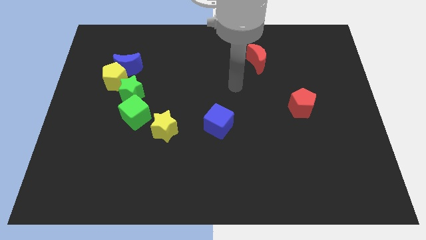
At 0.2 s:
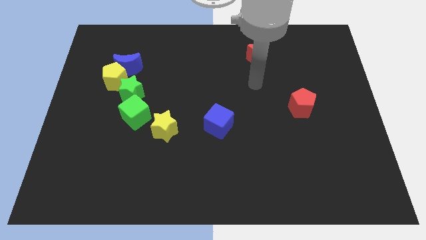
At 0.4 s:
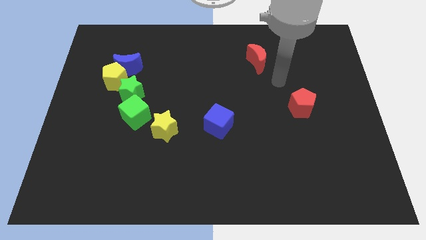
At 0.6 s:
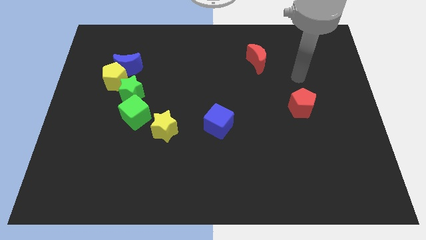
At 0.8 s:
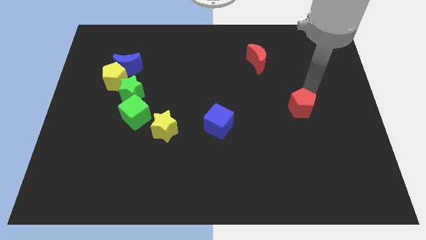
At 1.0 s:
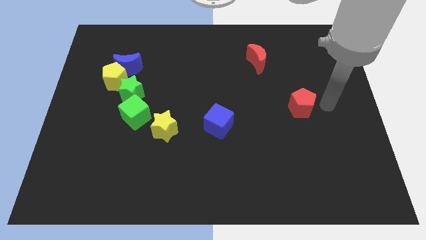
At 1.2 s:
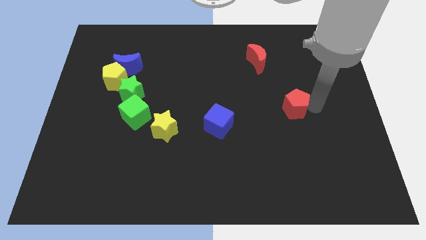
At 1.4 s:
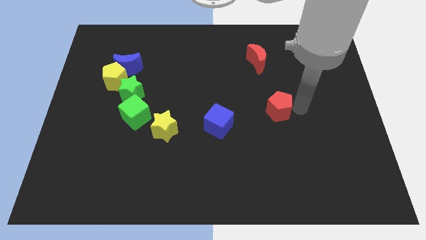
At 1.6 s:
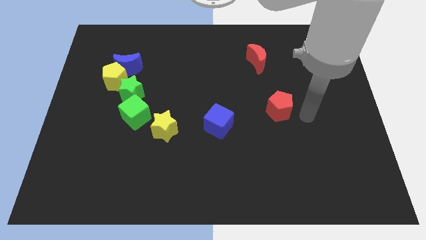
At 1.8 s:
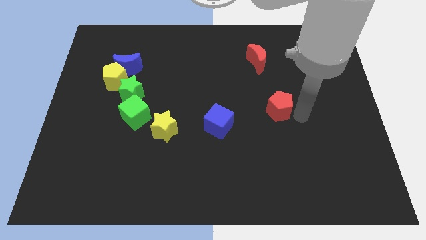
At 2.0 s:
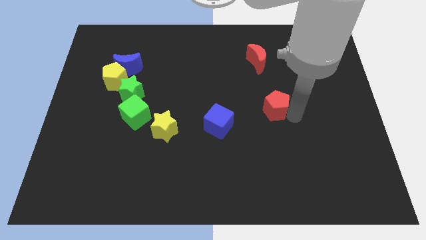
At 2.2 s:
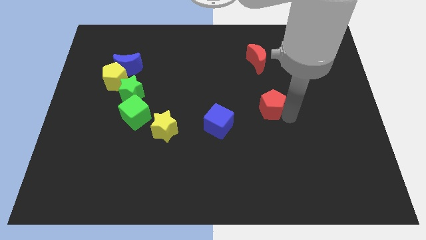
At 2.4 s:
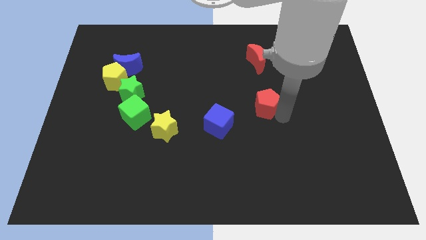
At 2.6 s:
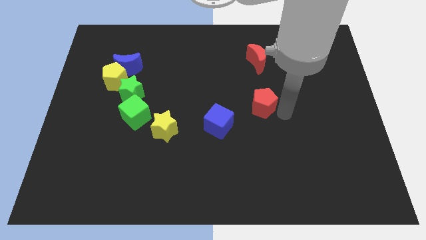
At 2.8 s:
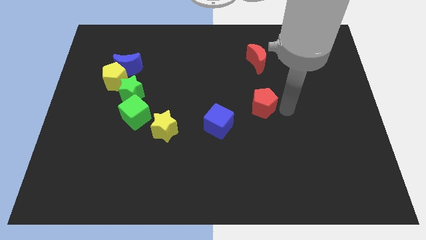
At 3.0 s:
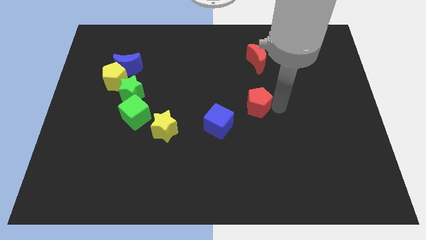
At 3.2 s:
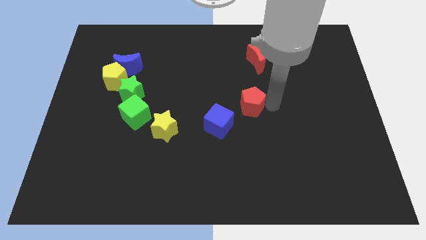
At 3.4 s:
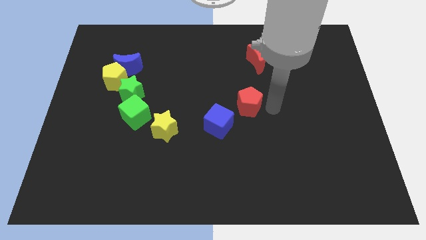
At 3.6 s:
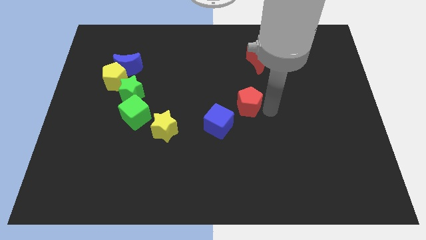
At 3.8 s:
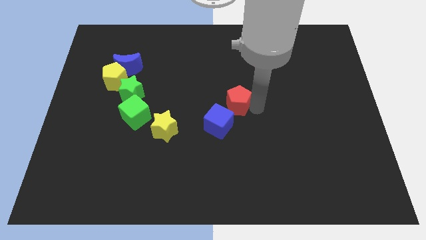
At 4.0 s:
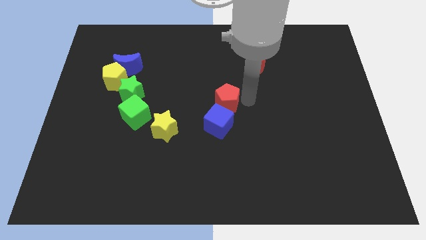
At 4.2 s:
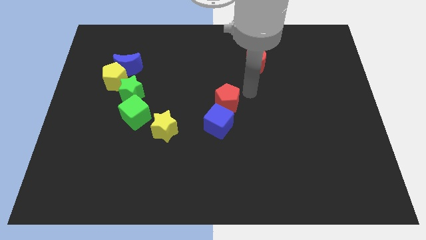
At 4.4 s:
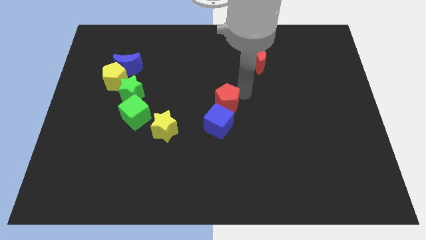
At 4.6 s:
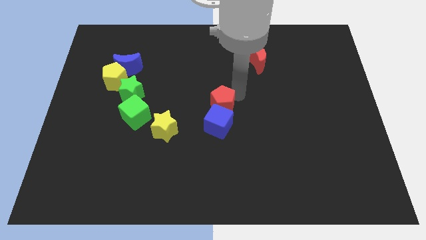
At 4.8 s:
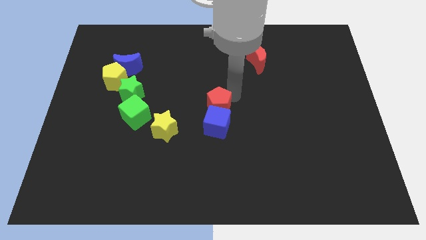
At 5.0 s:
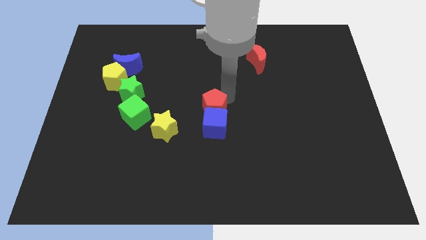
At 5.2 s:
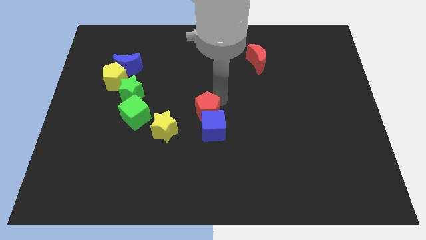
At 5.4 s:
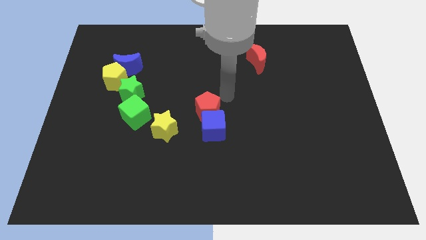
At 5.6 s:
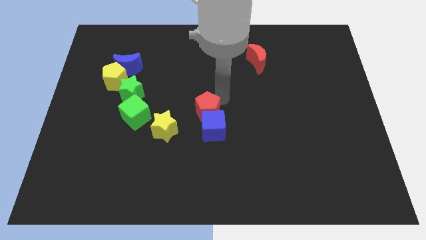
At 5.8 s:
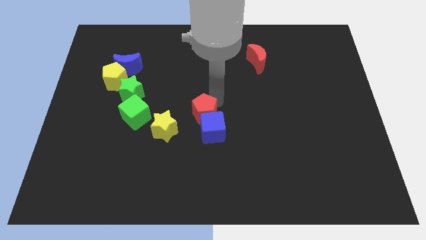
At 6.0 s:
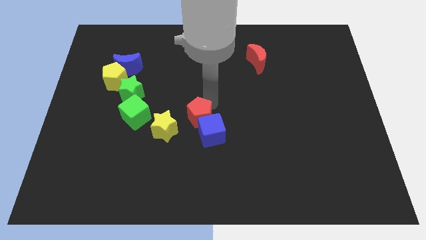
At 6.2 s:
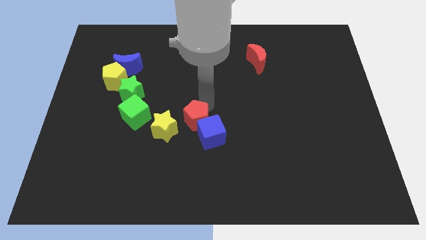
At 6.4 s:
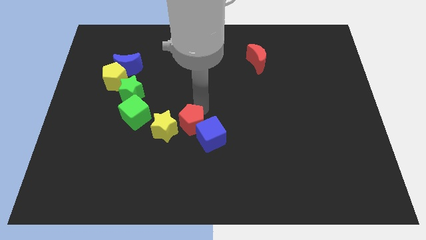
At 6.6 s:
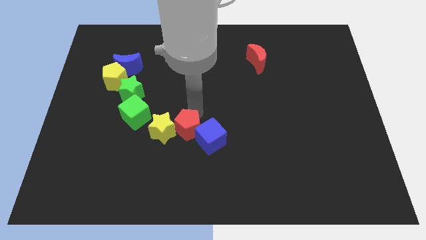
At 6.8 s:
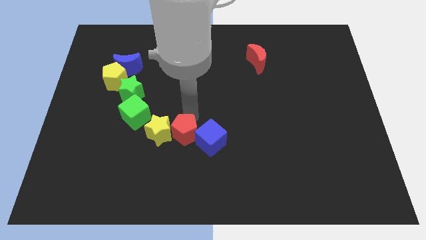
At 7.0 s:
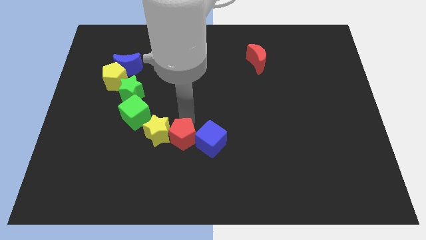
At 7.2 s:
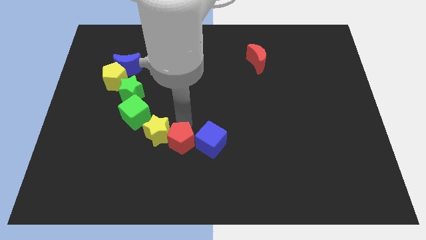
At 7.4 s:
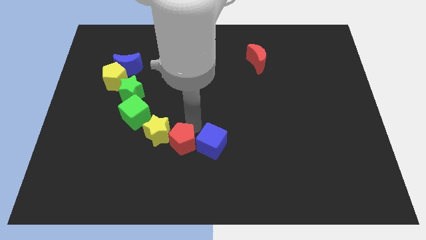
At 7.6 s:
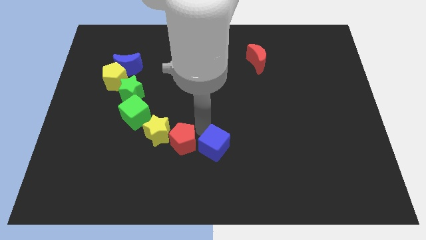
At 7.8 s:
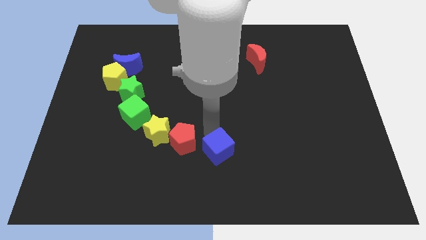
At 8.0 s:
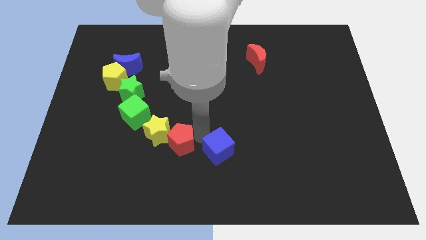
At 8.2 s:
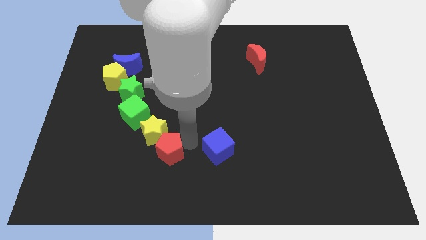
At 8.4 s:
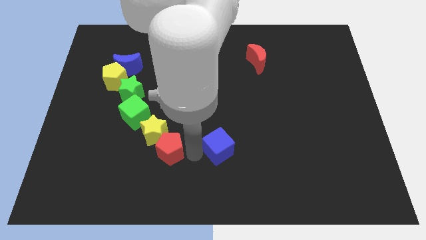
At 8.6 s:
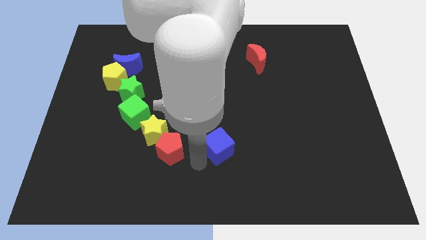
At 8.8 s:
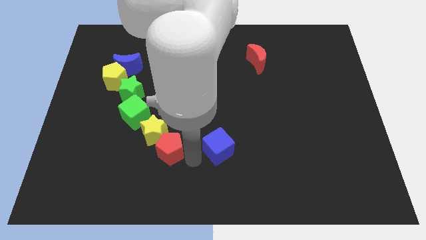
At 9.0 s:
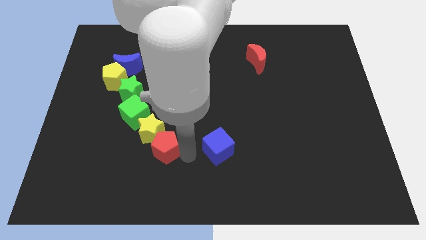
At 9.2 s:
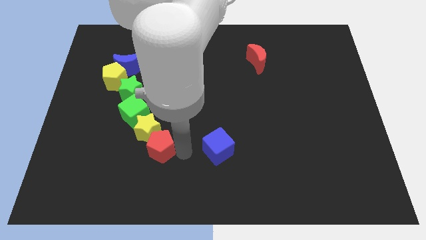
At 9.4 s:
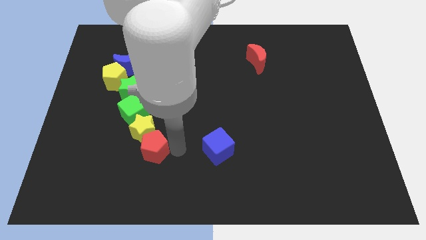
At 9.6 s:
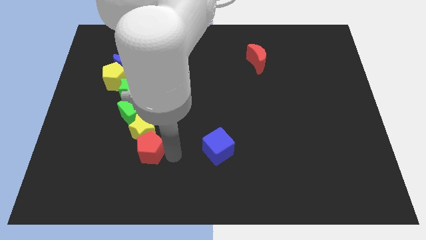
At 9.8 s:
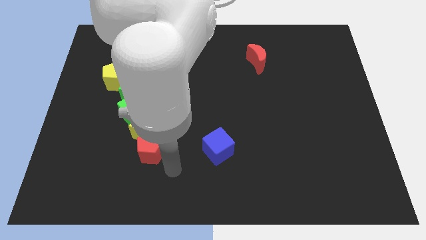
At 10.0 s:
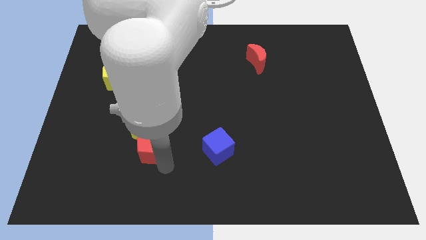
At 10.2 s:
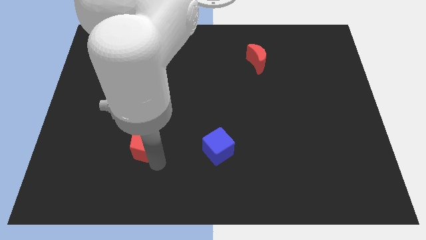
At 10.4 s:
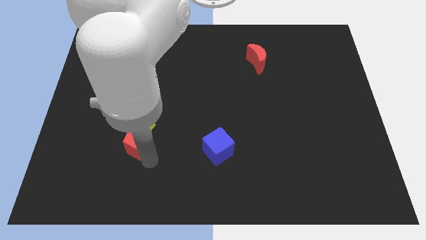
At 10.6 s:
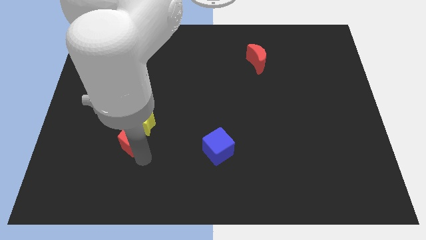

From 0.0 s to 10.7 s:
move the red pentagon to the bottom of the green star

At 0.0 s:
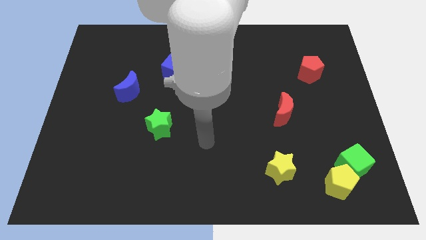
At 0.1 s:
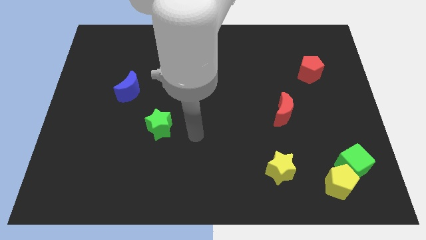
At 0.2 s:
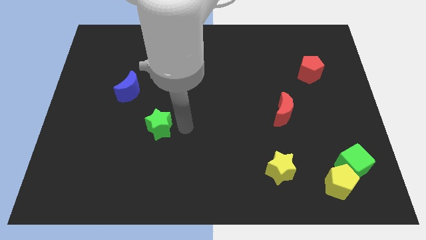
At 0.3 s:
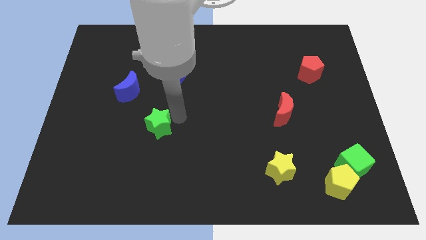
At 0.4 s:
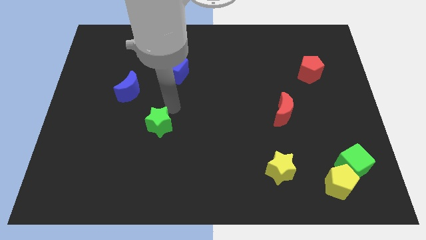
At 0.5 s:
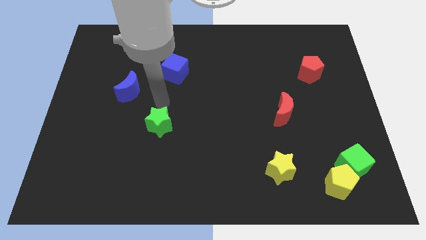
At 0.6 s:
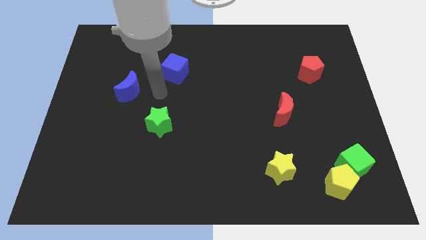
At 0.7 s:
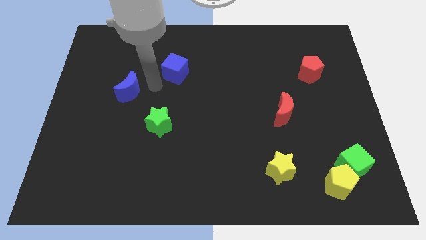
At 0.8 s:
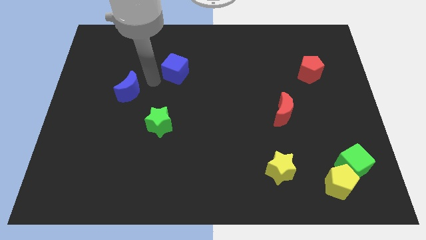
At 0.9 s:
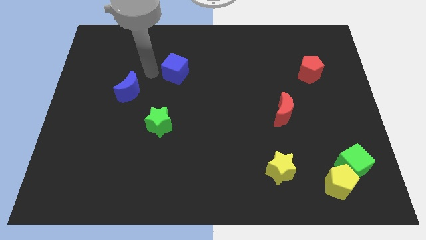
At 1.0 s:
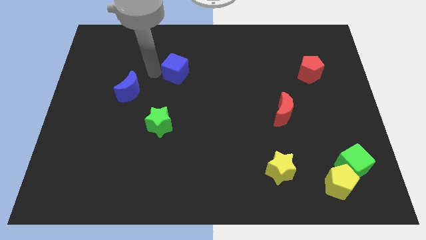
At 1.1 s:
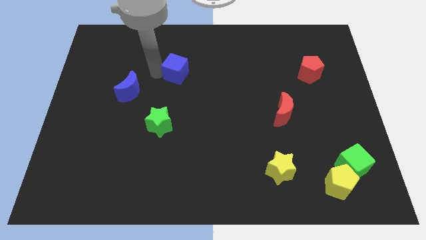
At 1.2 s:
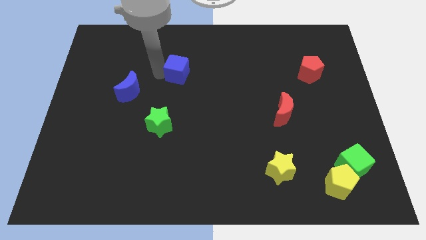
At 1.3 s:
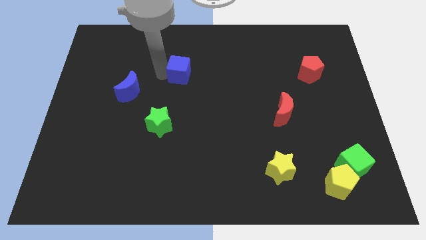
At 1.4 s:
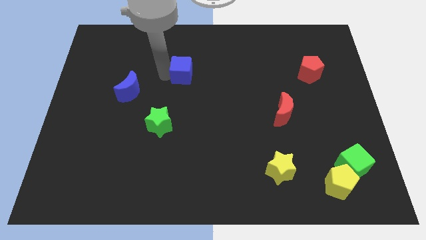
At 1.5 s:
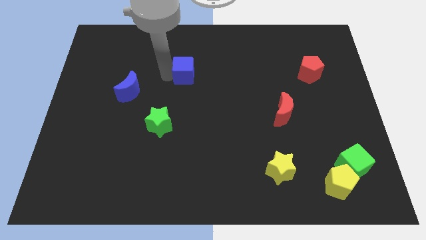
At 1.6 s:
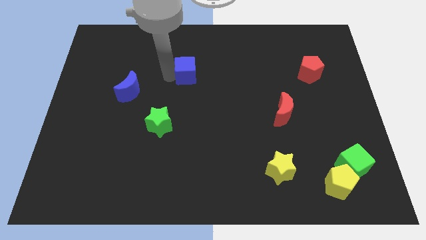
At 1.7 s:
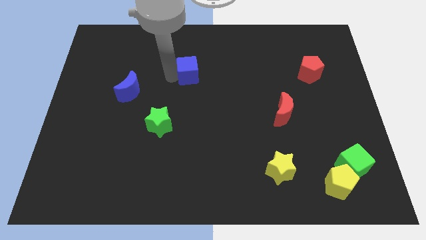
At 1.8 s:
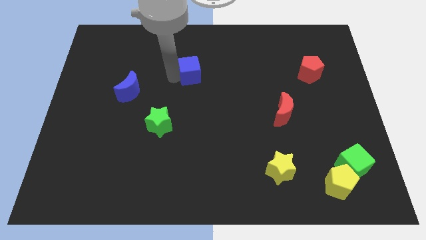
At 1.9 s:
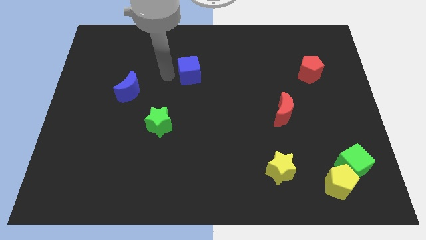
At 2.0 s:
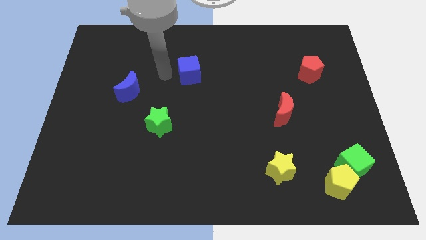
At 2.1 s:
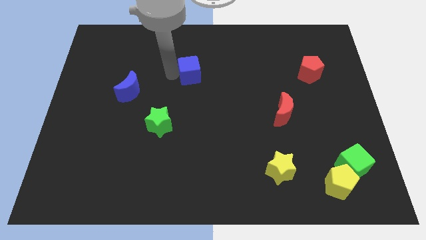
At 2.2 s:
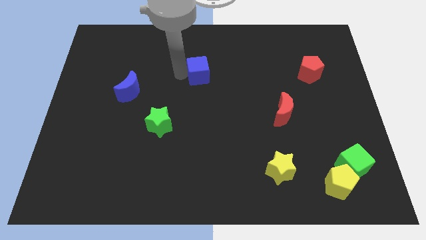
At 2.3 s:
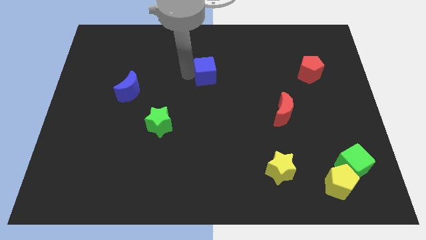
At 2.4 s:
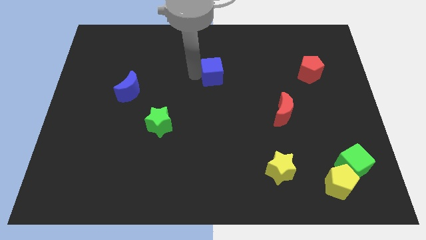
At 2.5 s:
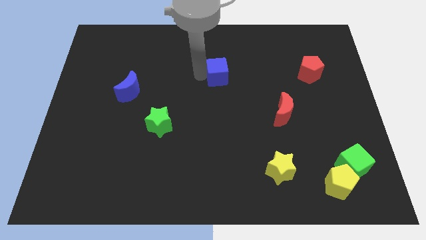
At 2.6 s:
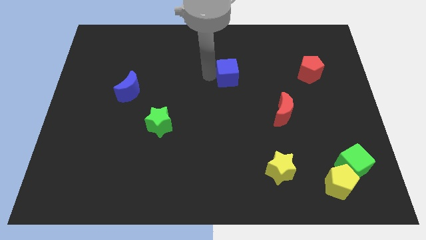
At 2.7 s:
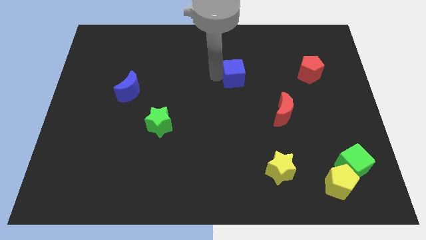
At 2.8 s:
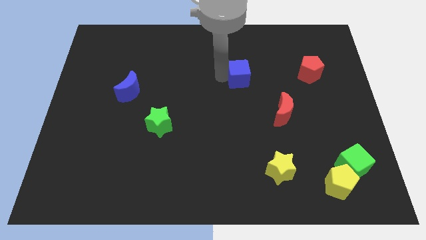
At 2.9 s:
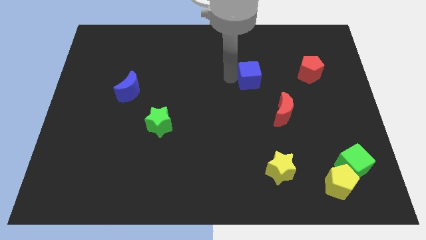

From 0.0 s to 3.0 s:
push the blue cube just left of the red pentagon
